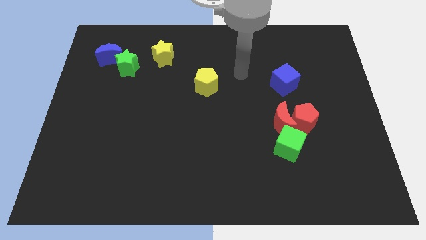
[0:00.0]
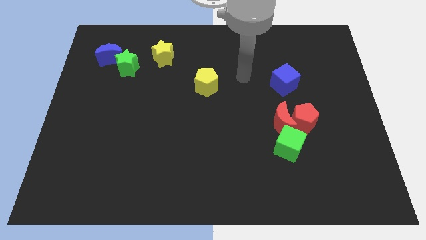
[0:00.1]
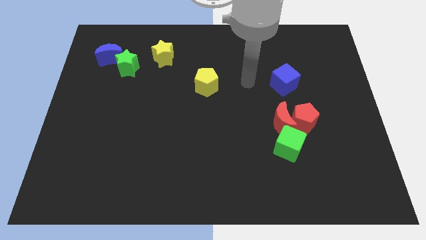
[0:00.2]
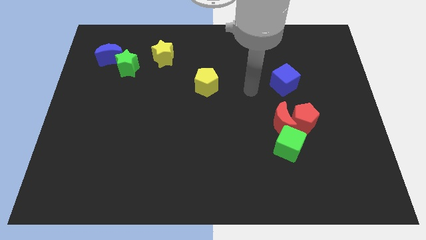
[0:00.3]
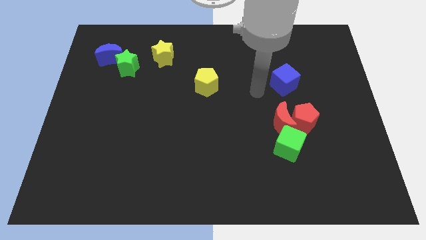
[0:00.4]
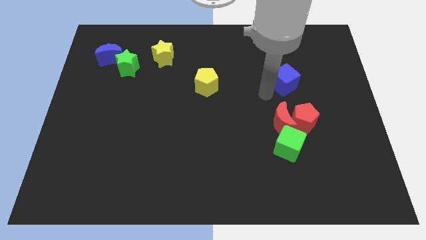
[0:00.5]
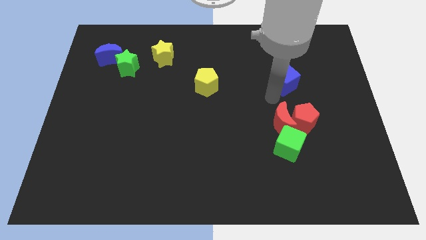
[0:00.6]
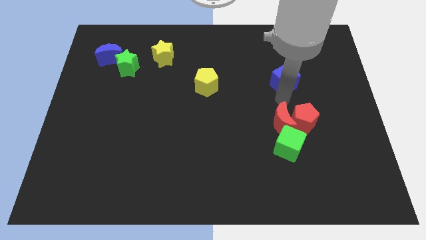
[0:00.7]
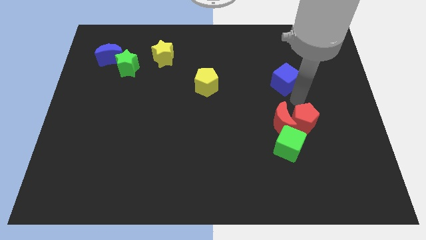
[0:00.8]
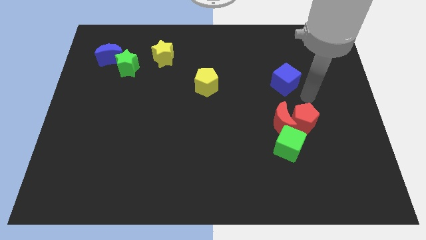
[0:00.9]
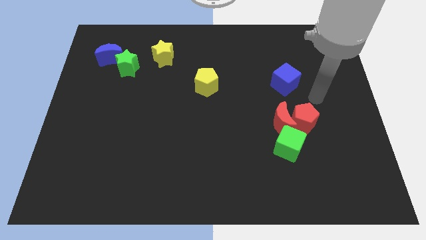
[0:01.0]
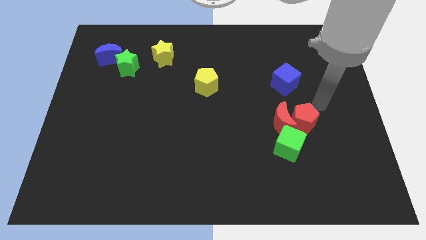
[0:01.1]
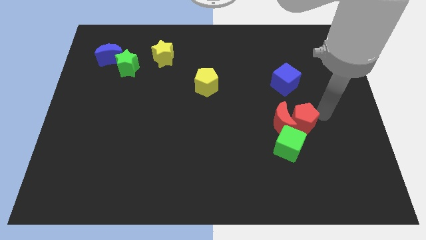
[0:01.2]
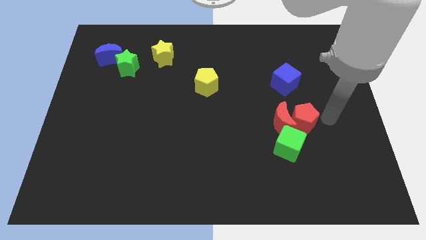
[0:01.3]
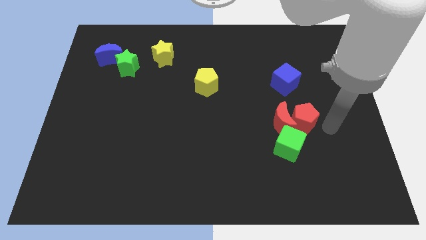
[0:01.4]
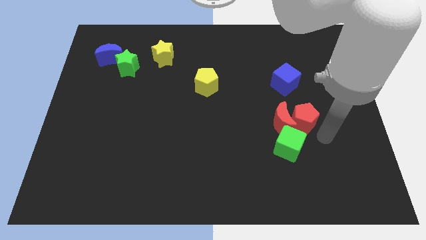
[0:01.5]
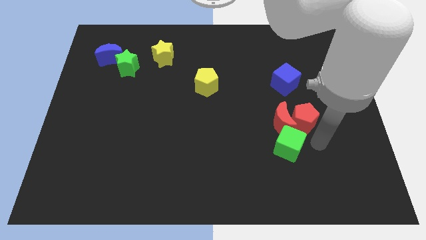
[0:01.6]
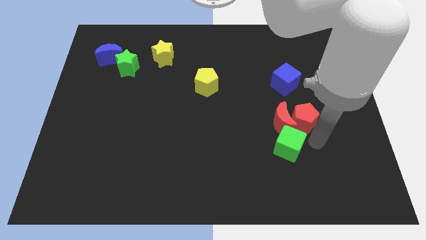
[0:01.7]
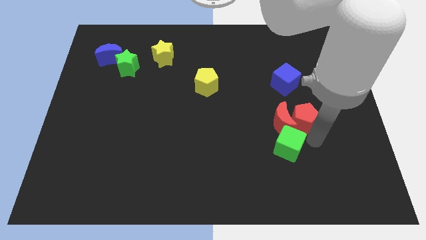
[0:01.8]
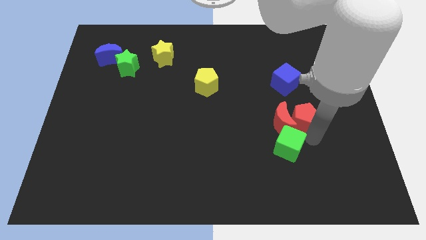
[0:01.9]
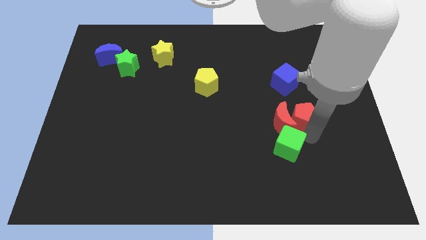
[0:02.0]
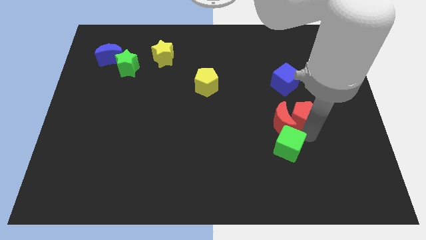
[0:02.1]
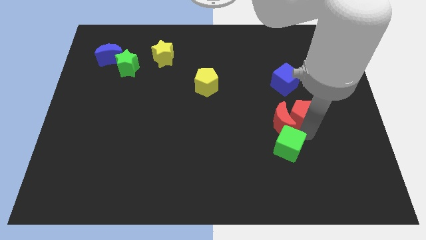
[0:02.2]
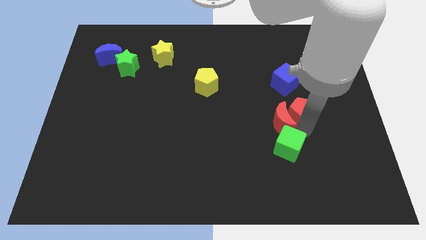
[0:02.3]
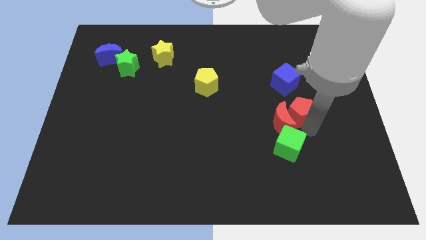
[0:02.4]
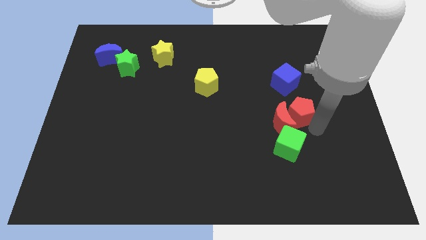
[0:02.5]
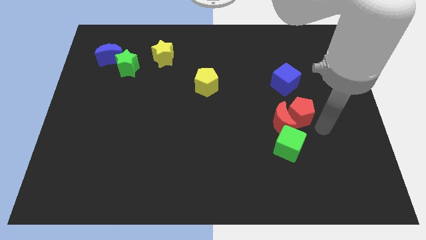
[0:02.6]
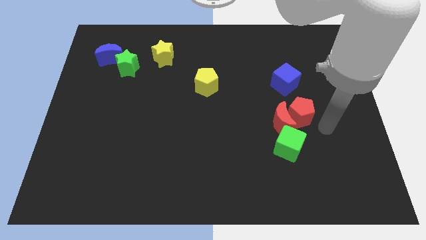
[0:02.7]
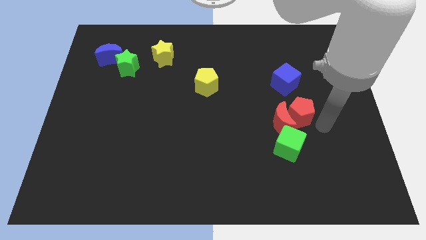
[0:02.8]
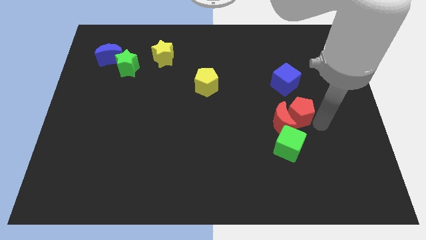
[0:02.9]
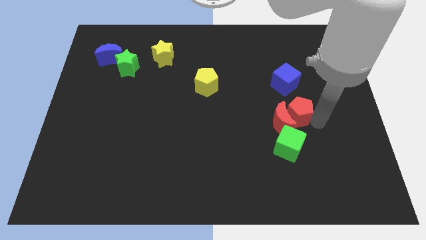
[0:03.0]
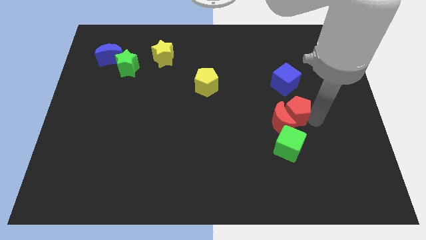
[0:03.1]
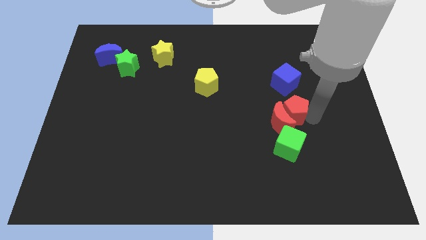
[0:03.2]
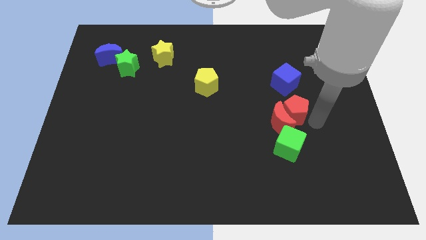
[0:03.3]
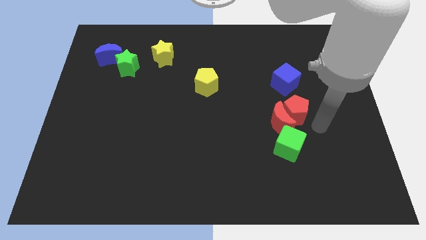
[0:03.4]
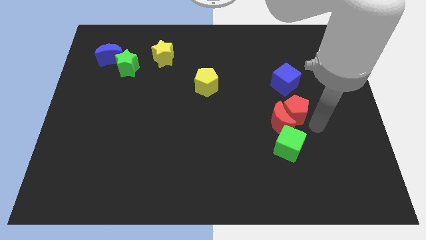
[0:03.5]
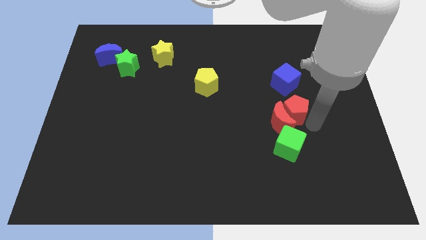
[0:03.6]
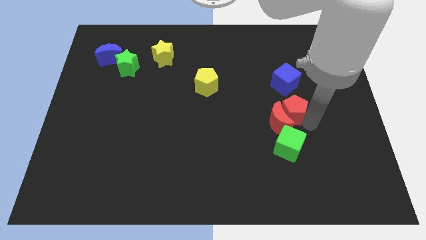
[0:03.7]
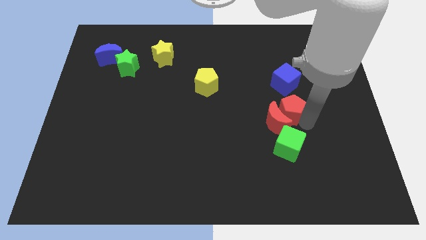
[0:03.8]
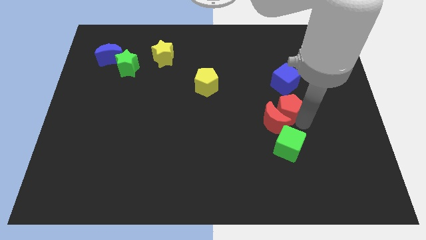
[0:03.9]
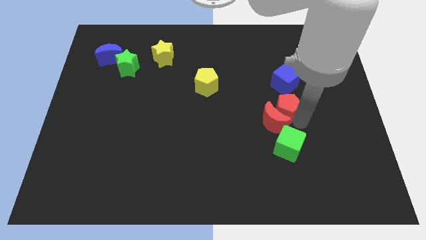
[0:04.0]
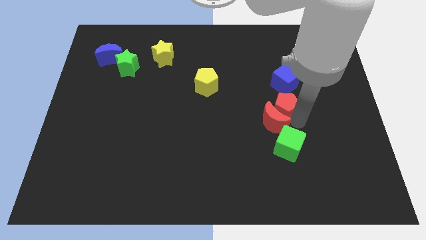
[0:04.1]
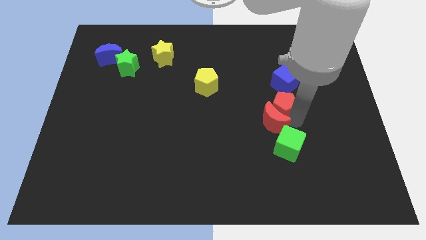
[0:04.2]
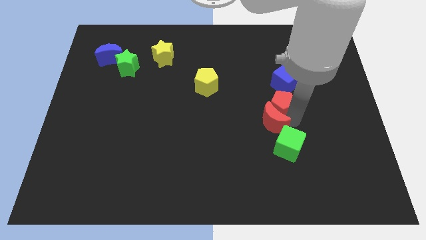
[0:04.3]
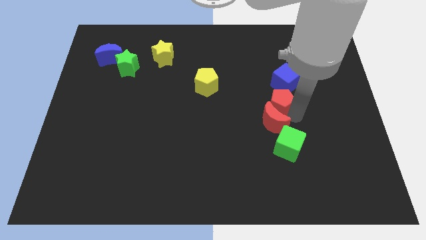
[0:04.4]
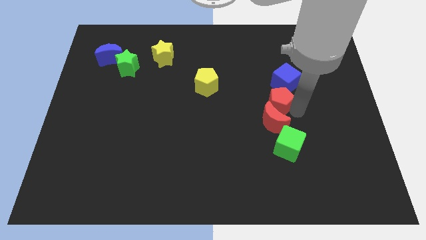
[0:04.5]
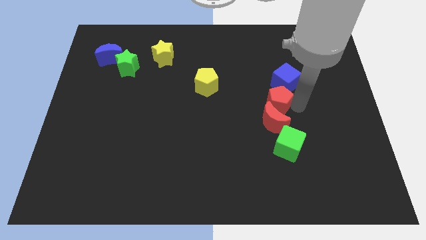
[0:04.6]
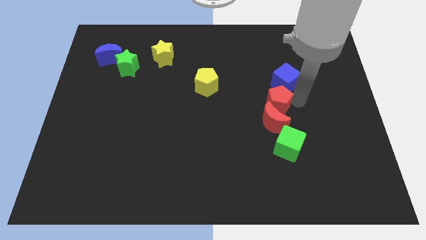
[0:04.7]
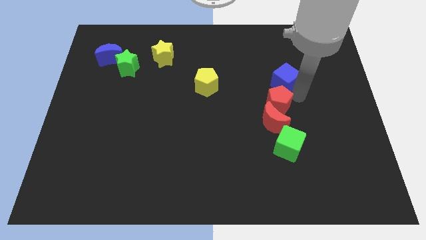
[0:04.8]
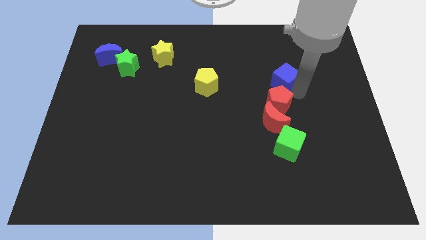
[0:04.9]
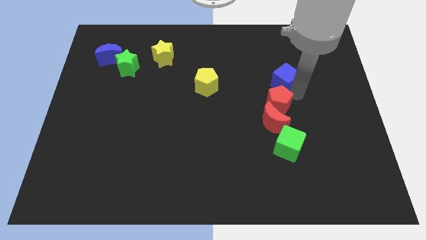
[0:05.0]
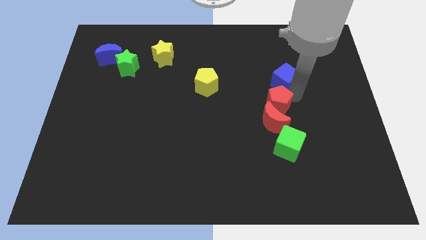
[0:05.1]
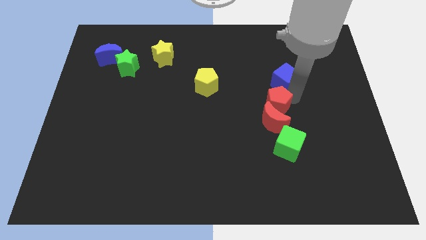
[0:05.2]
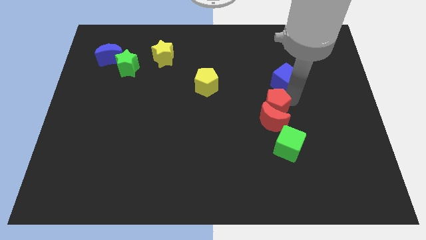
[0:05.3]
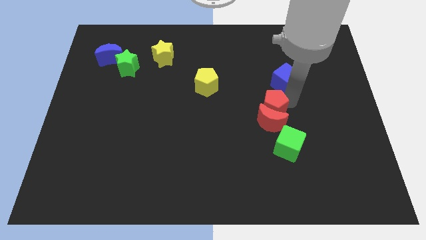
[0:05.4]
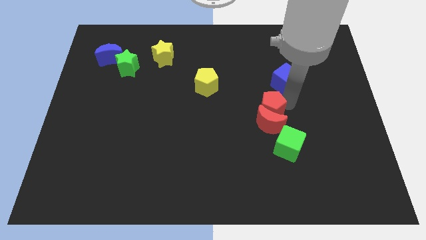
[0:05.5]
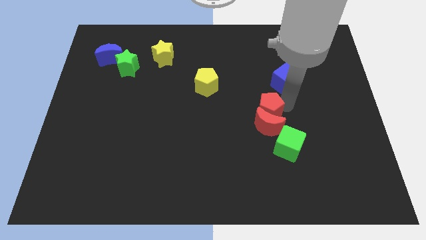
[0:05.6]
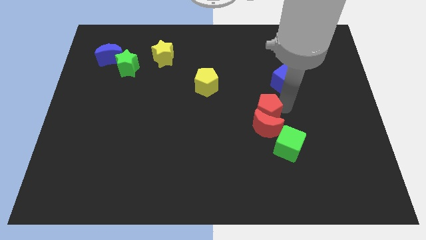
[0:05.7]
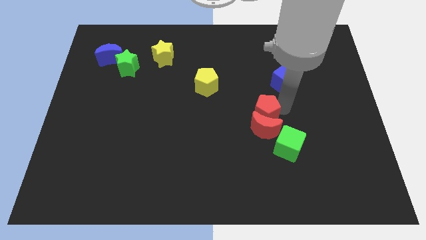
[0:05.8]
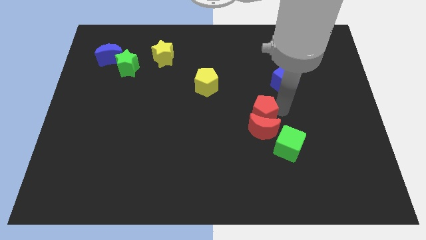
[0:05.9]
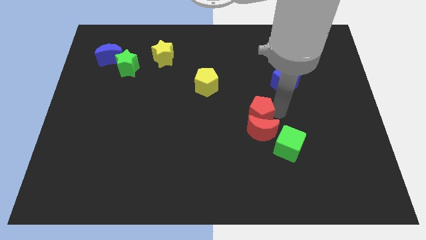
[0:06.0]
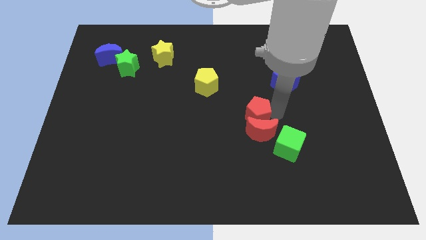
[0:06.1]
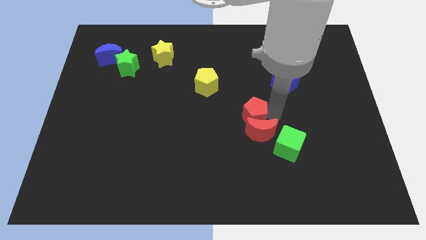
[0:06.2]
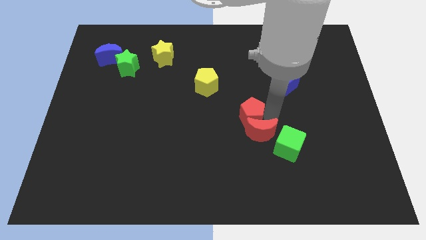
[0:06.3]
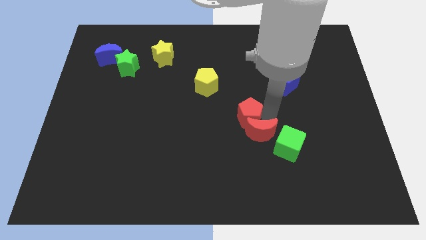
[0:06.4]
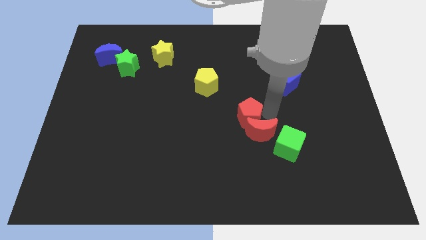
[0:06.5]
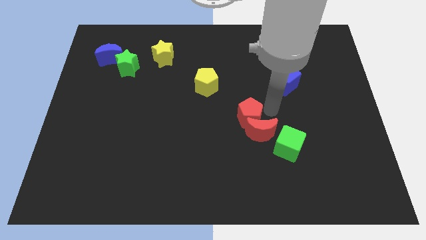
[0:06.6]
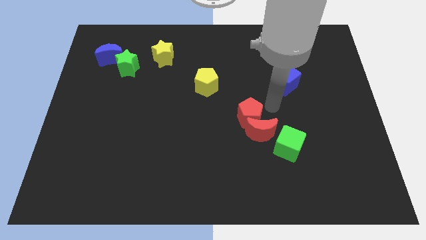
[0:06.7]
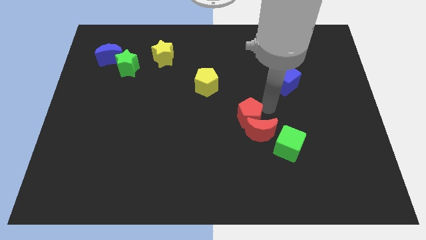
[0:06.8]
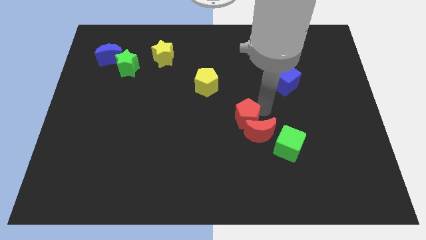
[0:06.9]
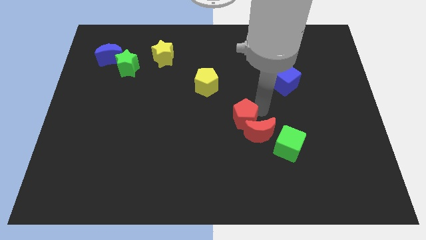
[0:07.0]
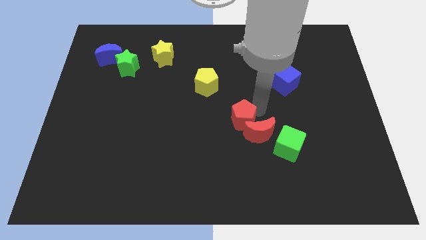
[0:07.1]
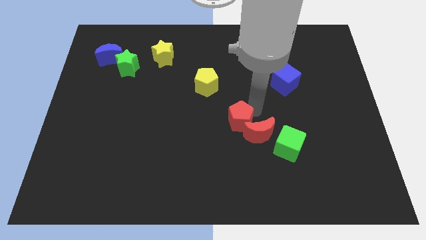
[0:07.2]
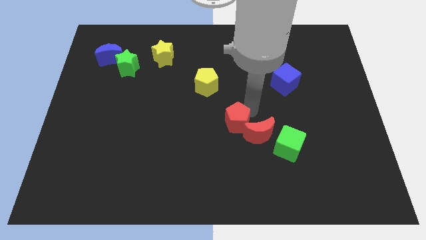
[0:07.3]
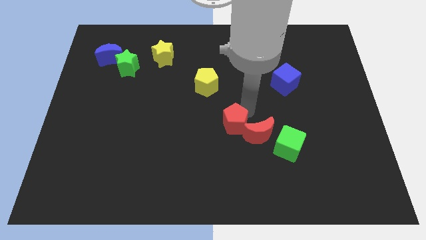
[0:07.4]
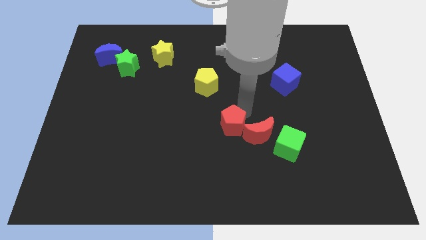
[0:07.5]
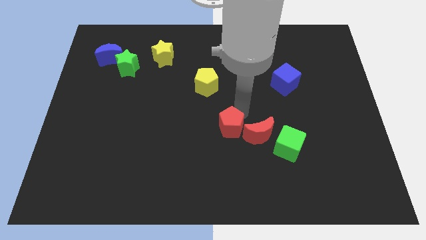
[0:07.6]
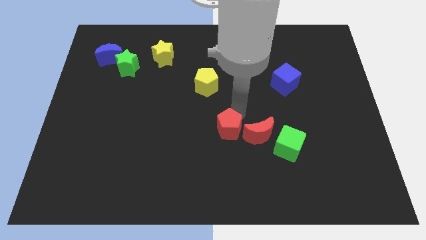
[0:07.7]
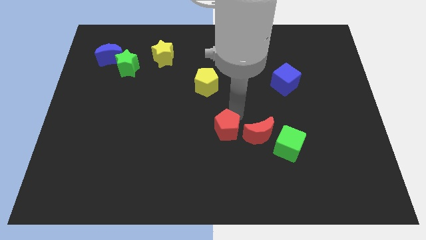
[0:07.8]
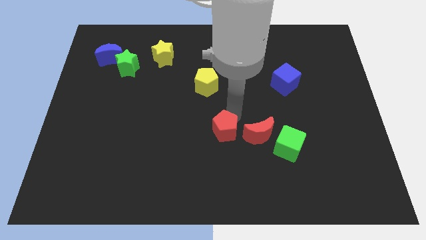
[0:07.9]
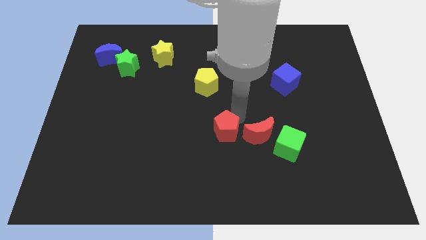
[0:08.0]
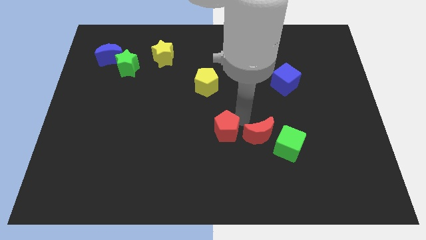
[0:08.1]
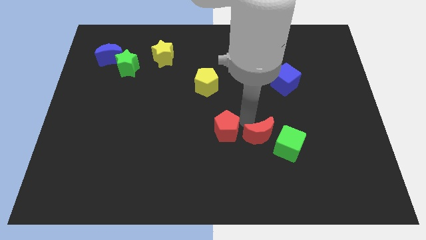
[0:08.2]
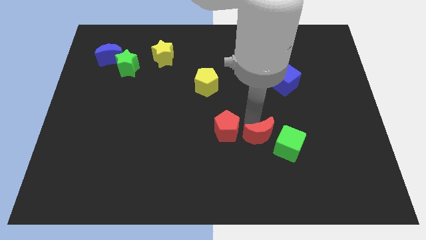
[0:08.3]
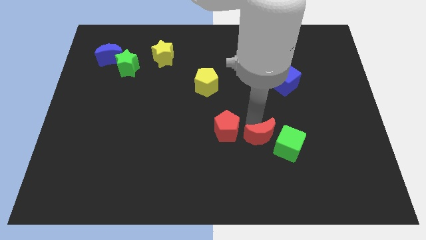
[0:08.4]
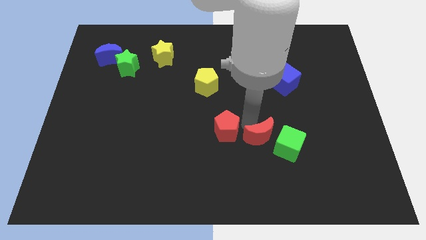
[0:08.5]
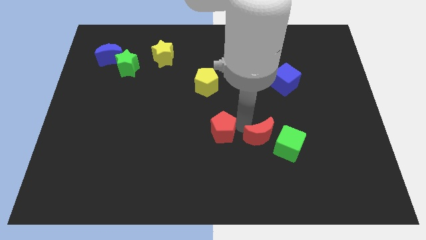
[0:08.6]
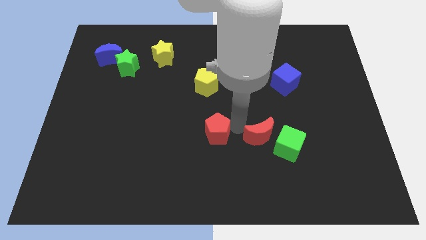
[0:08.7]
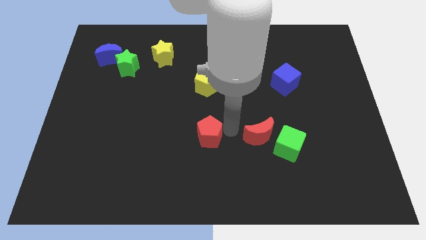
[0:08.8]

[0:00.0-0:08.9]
slide the red pentagon left
